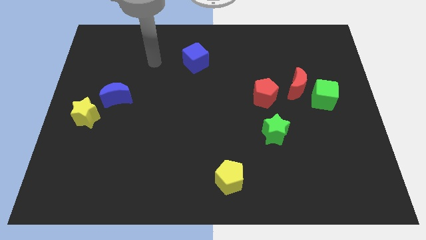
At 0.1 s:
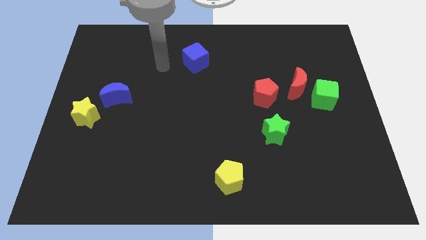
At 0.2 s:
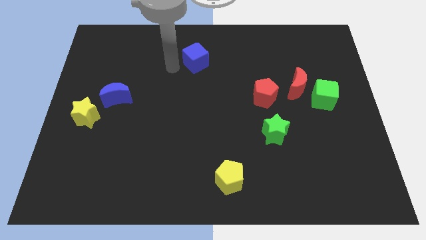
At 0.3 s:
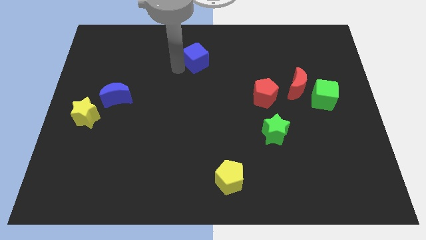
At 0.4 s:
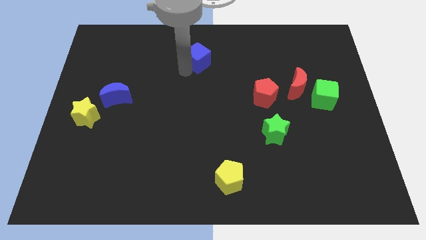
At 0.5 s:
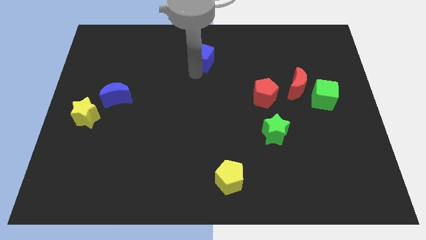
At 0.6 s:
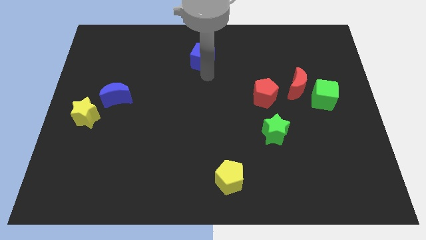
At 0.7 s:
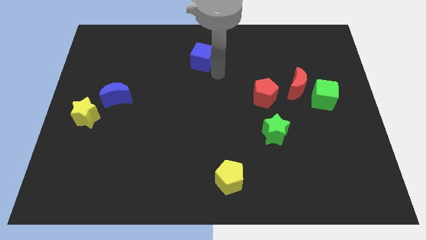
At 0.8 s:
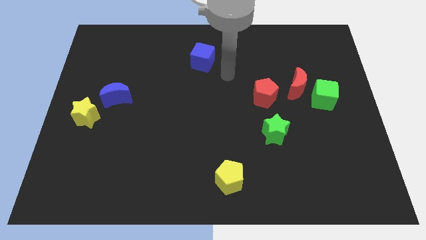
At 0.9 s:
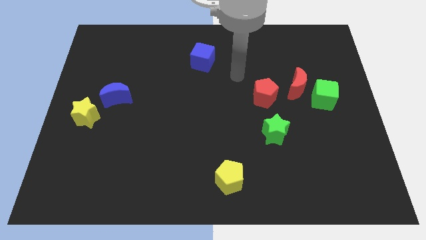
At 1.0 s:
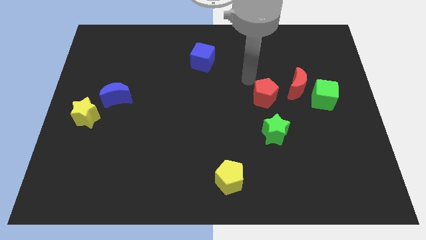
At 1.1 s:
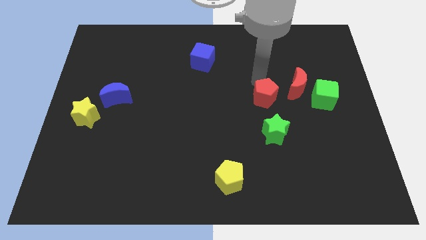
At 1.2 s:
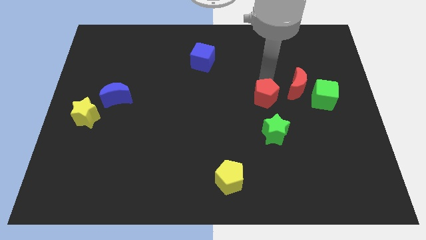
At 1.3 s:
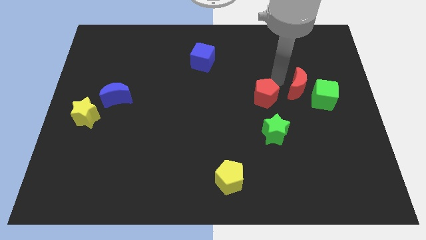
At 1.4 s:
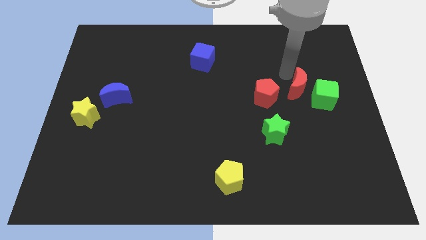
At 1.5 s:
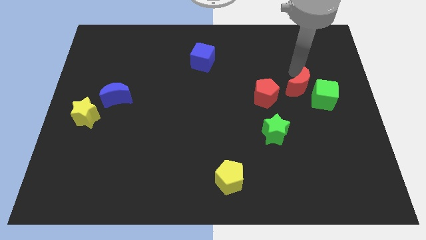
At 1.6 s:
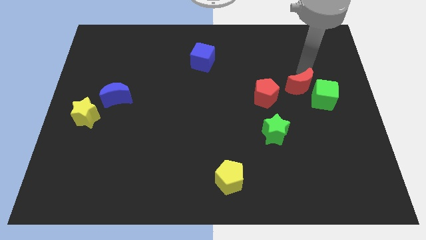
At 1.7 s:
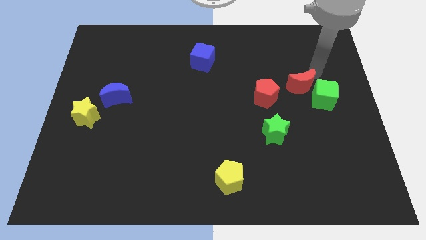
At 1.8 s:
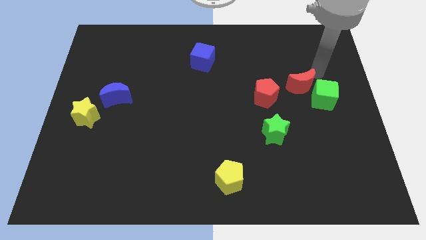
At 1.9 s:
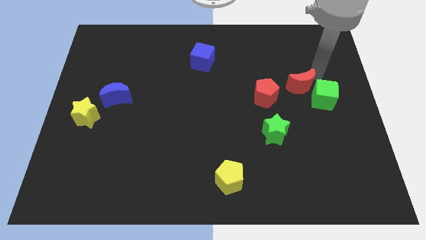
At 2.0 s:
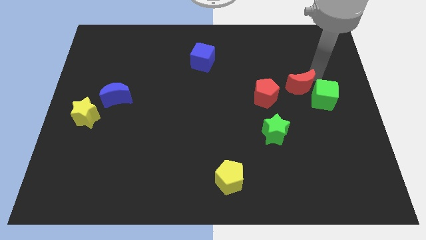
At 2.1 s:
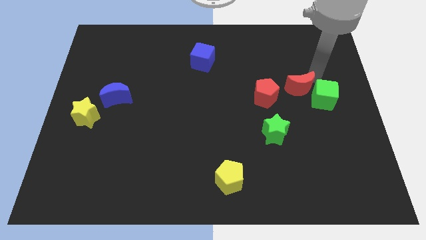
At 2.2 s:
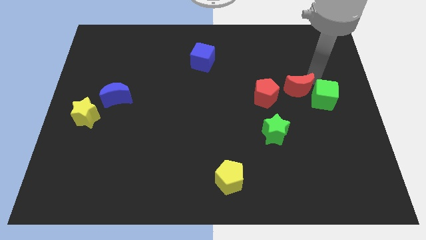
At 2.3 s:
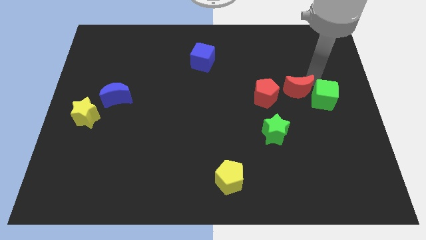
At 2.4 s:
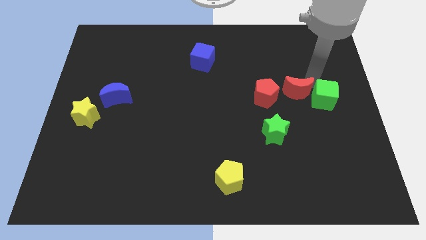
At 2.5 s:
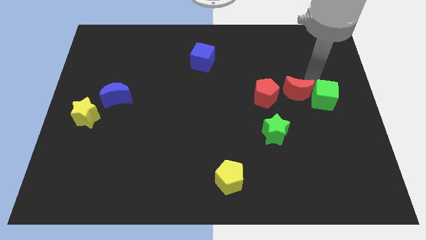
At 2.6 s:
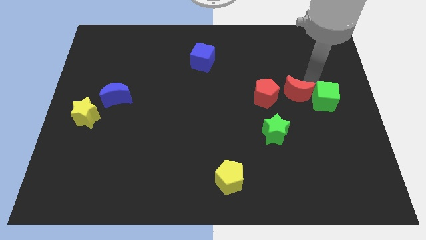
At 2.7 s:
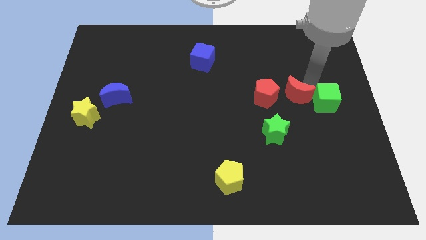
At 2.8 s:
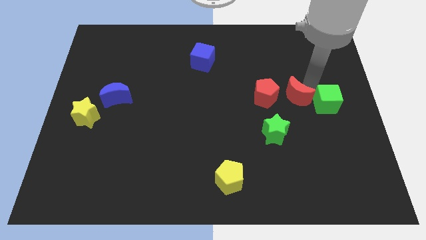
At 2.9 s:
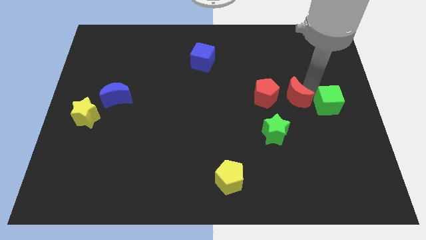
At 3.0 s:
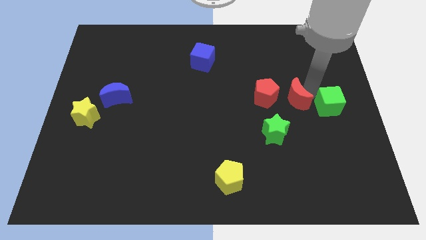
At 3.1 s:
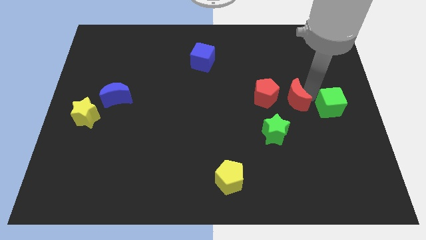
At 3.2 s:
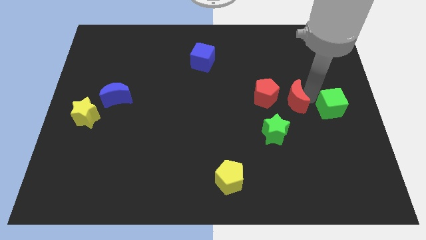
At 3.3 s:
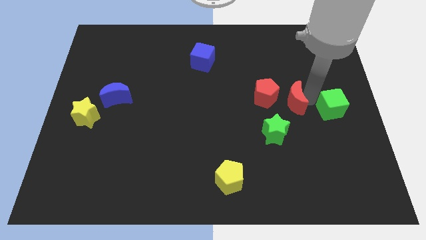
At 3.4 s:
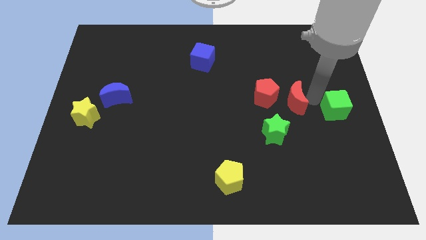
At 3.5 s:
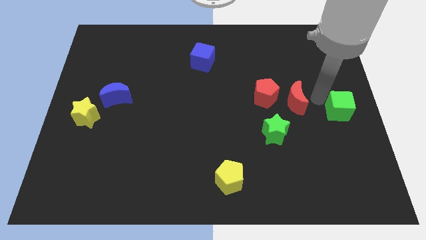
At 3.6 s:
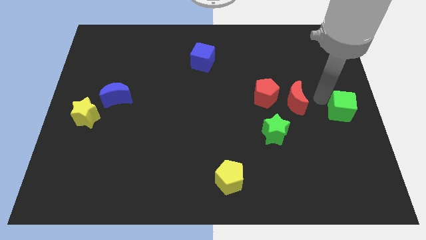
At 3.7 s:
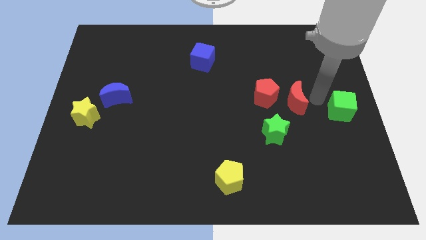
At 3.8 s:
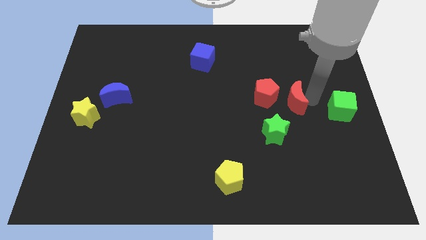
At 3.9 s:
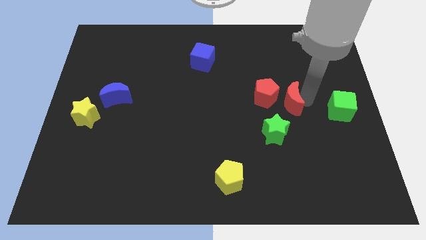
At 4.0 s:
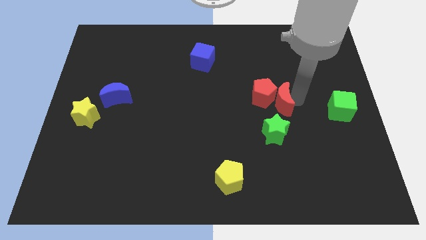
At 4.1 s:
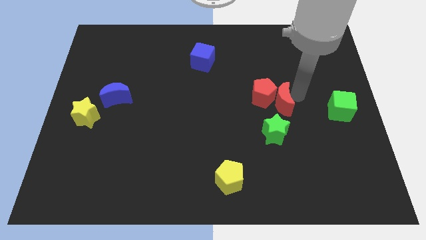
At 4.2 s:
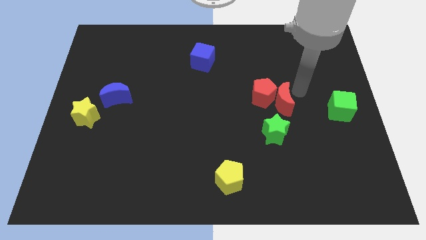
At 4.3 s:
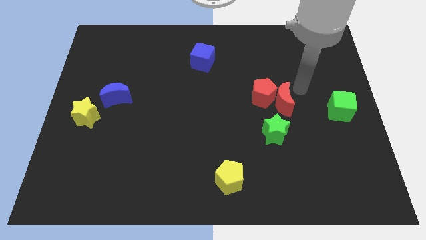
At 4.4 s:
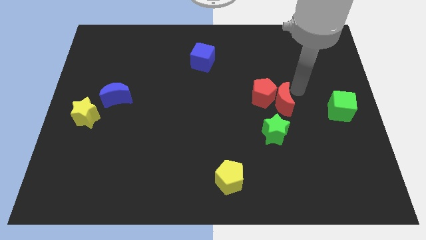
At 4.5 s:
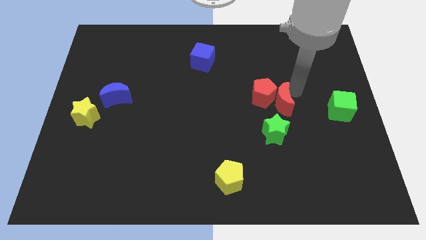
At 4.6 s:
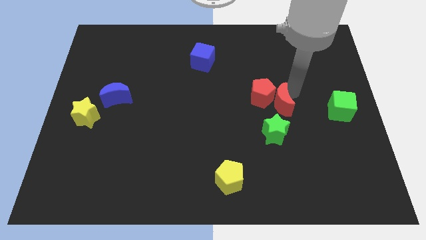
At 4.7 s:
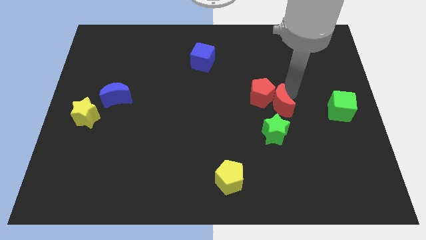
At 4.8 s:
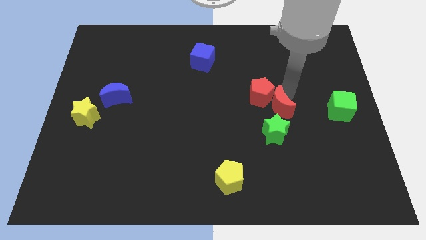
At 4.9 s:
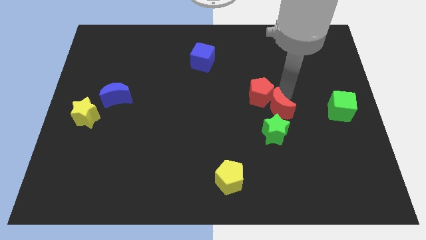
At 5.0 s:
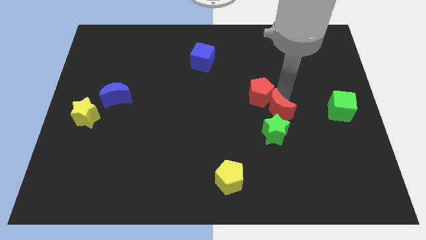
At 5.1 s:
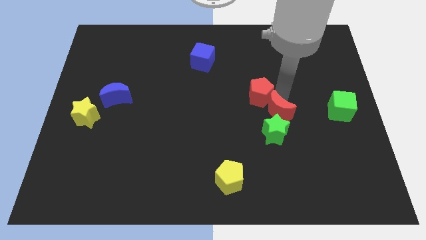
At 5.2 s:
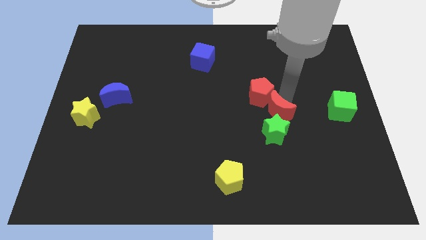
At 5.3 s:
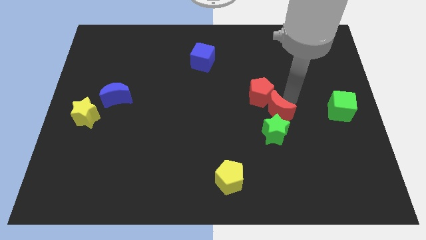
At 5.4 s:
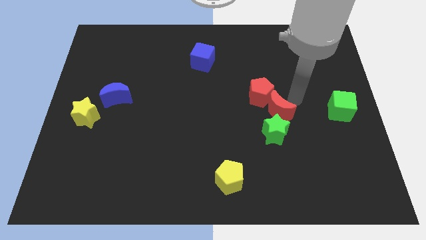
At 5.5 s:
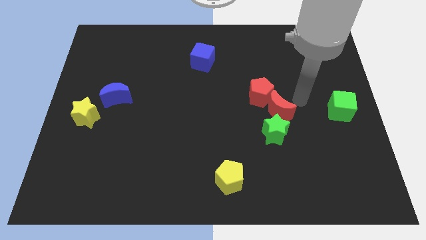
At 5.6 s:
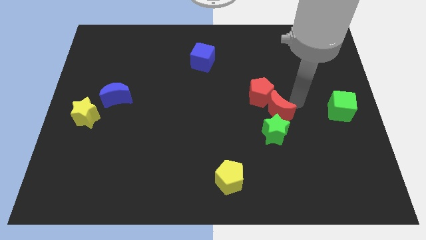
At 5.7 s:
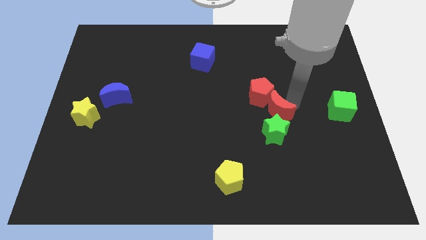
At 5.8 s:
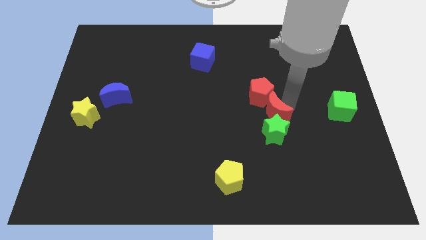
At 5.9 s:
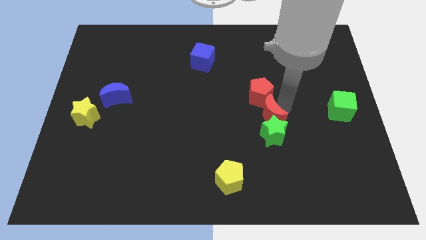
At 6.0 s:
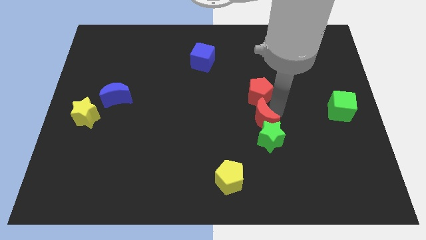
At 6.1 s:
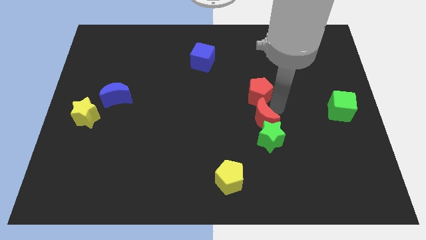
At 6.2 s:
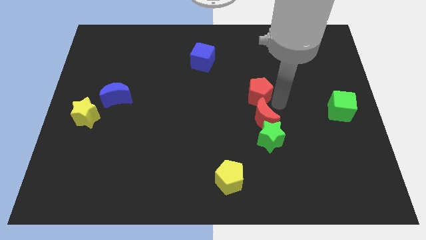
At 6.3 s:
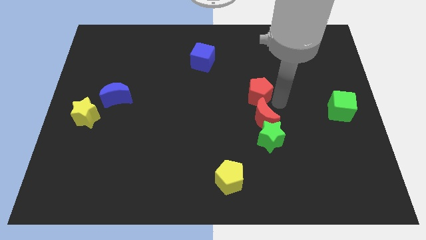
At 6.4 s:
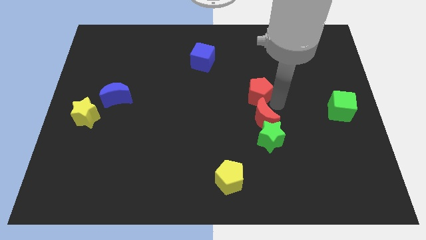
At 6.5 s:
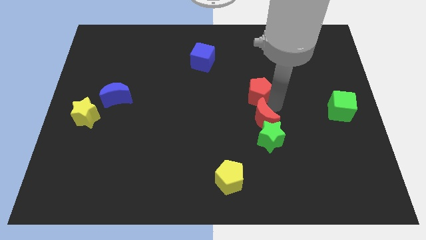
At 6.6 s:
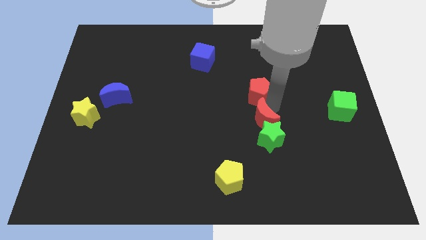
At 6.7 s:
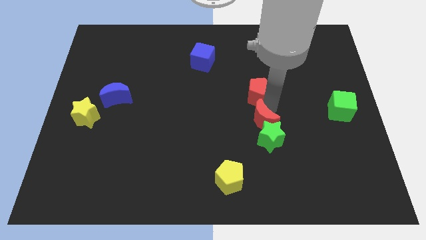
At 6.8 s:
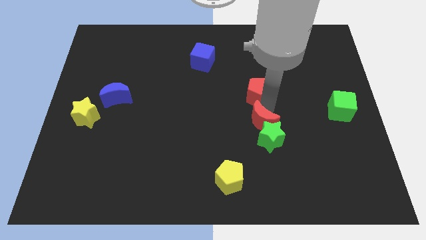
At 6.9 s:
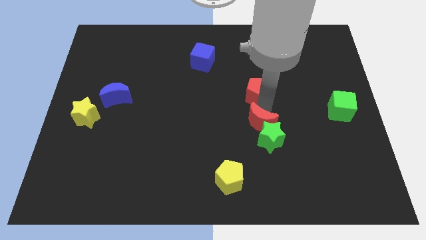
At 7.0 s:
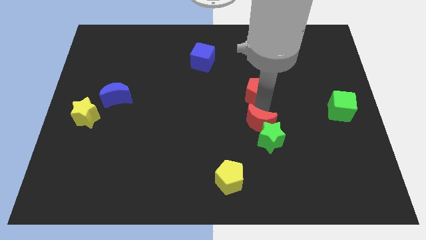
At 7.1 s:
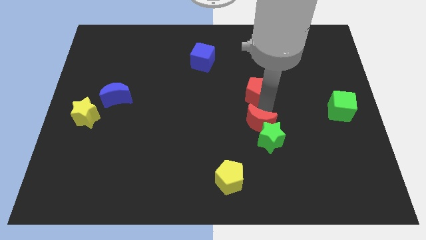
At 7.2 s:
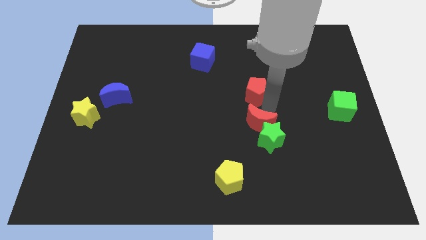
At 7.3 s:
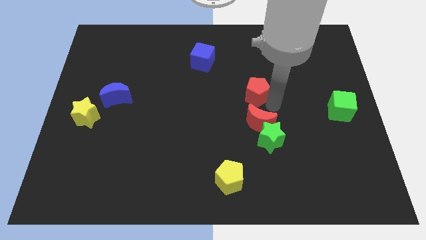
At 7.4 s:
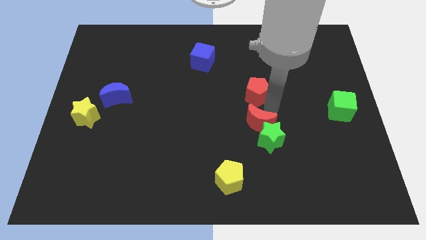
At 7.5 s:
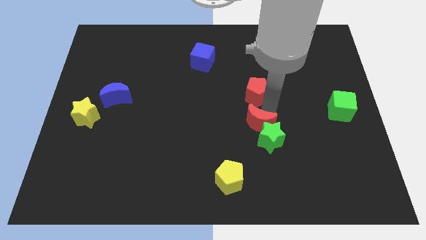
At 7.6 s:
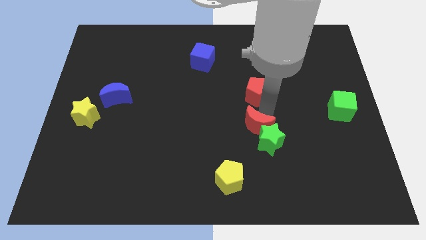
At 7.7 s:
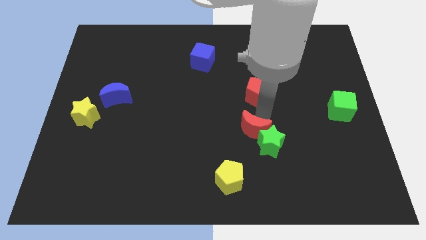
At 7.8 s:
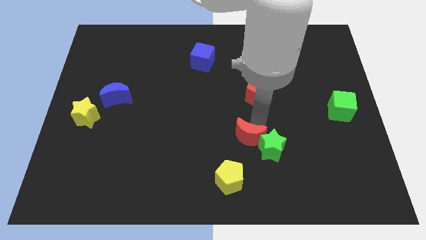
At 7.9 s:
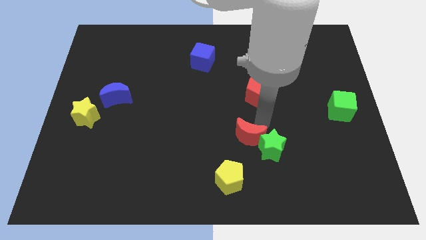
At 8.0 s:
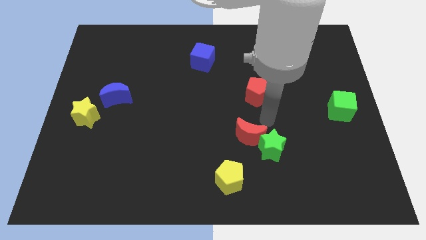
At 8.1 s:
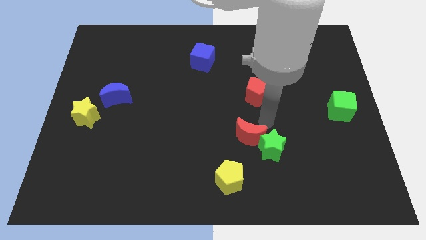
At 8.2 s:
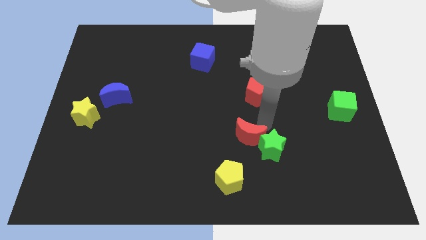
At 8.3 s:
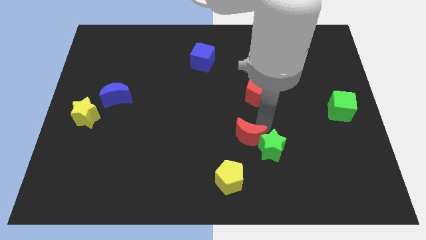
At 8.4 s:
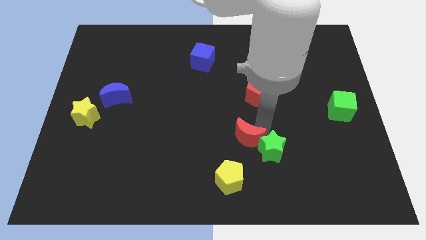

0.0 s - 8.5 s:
move the red moon down and to the left diagonally
